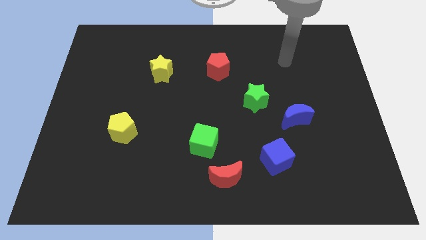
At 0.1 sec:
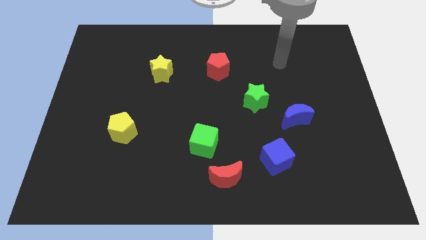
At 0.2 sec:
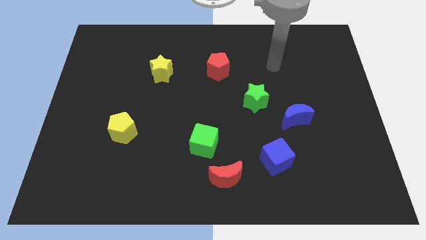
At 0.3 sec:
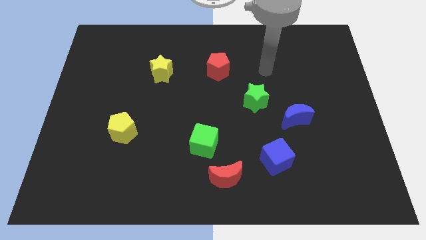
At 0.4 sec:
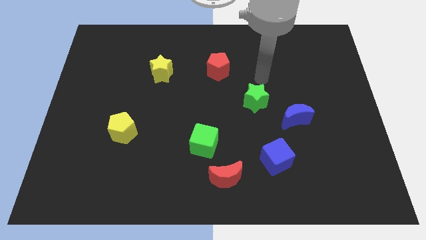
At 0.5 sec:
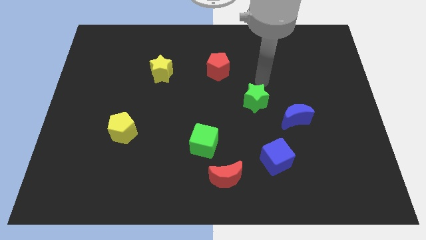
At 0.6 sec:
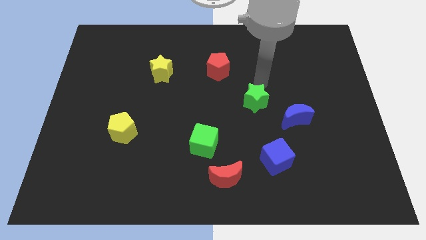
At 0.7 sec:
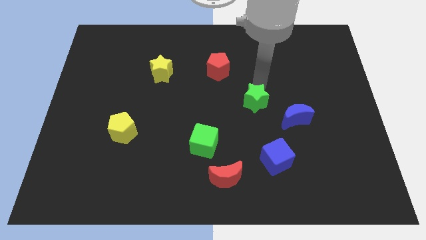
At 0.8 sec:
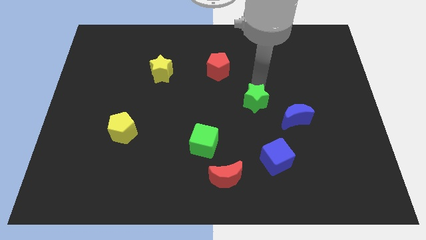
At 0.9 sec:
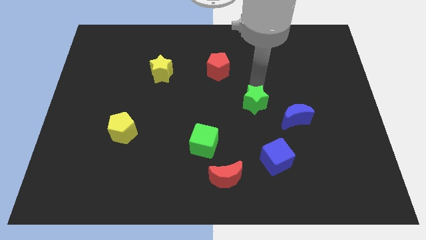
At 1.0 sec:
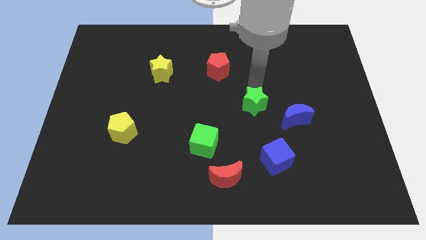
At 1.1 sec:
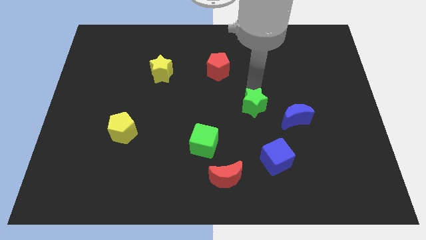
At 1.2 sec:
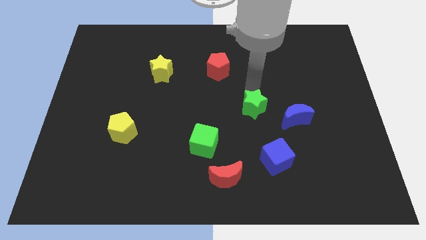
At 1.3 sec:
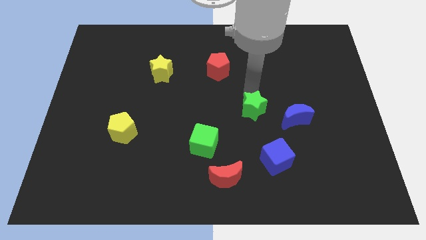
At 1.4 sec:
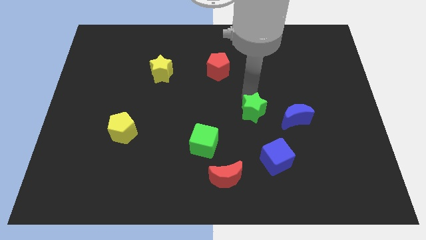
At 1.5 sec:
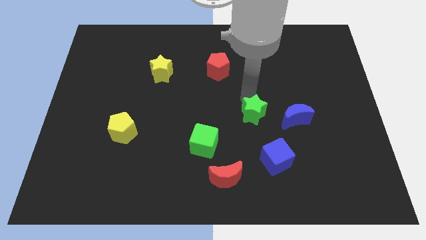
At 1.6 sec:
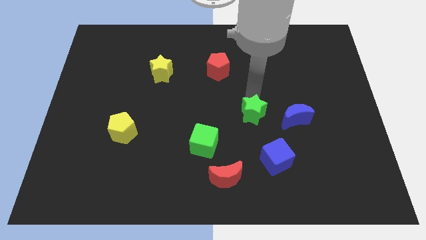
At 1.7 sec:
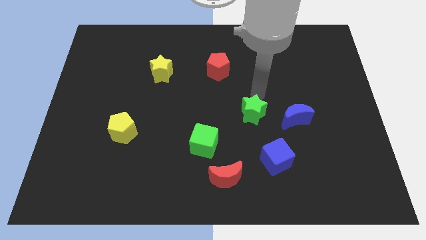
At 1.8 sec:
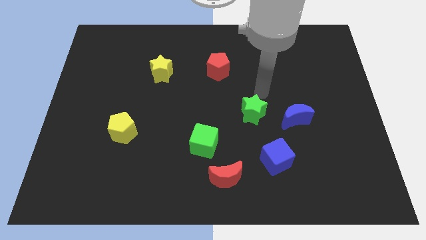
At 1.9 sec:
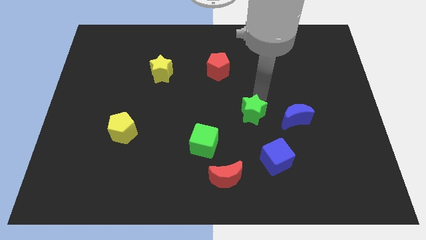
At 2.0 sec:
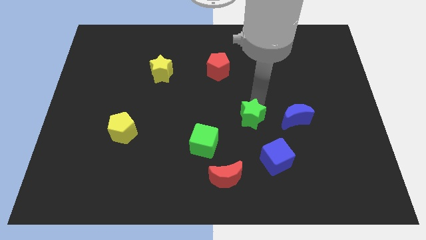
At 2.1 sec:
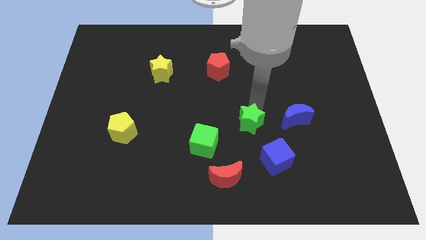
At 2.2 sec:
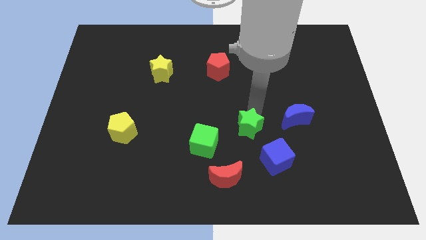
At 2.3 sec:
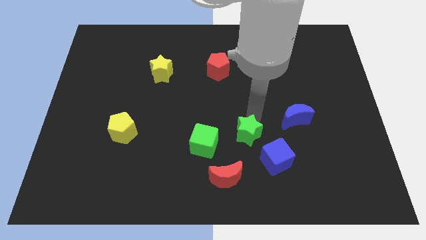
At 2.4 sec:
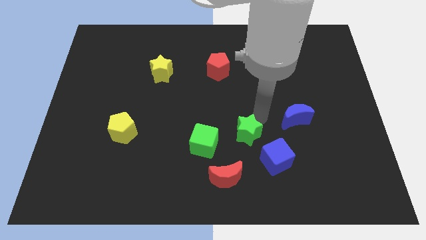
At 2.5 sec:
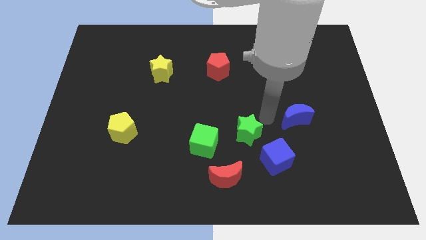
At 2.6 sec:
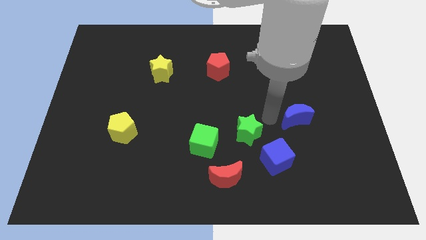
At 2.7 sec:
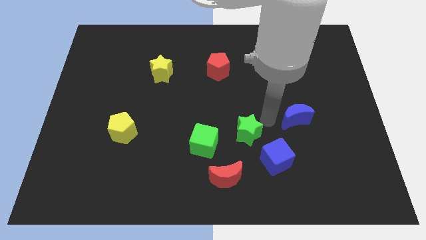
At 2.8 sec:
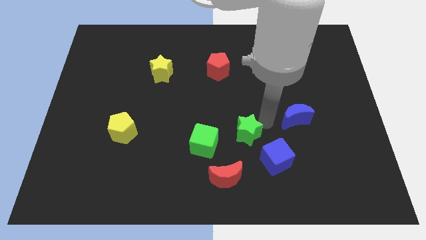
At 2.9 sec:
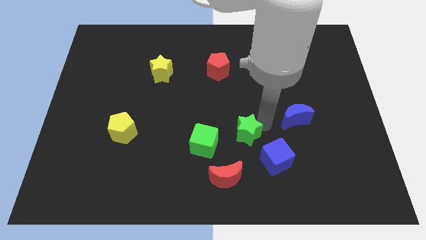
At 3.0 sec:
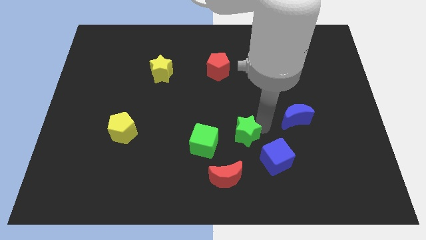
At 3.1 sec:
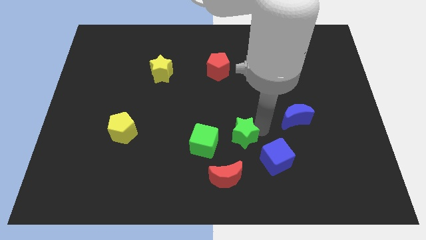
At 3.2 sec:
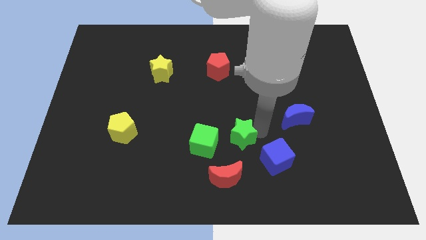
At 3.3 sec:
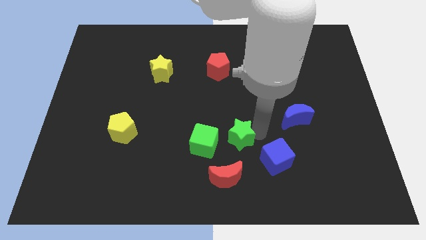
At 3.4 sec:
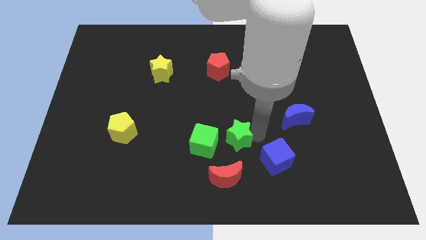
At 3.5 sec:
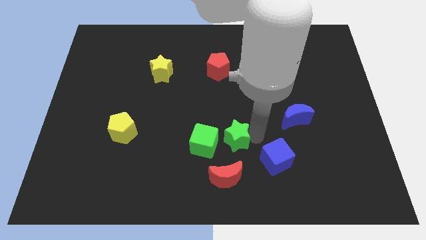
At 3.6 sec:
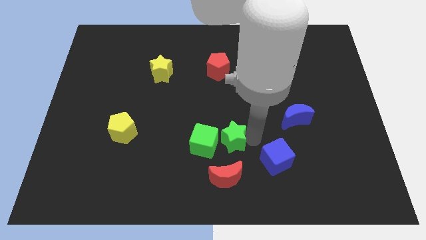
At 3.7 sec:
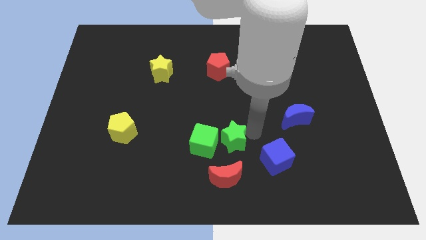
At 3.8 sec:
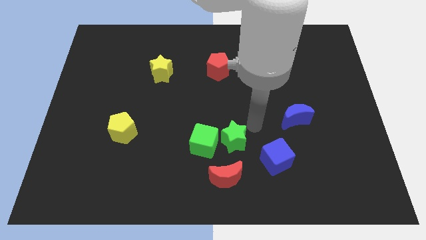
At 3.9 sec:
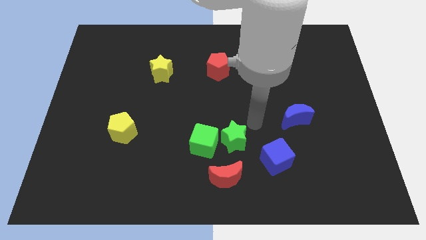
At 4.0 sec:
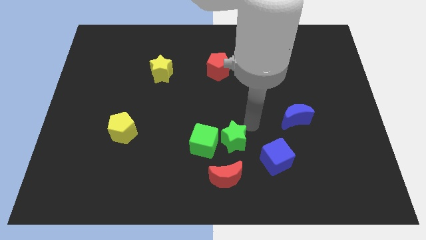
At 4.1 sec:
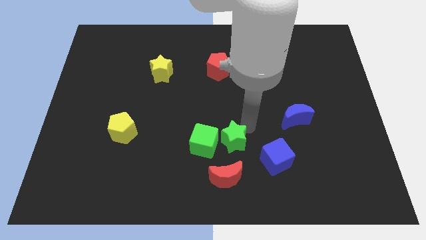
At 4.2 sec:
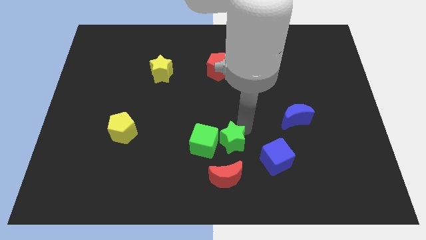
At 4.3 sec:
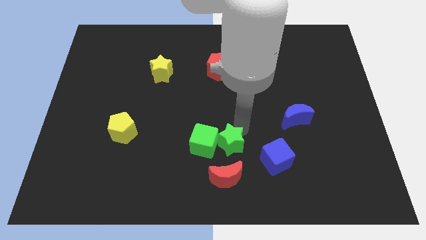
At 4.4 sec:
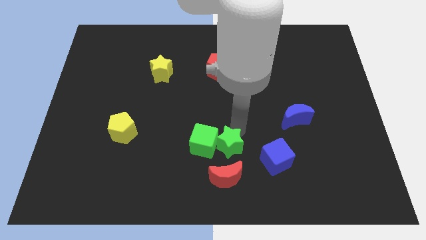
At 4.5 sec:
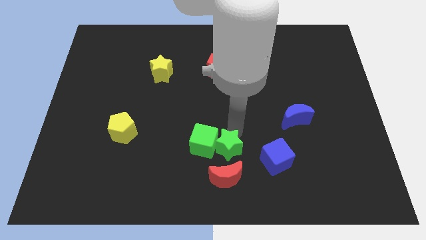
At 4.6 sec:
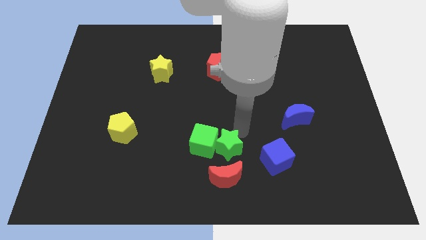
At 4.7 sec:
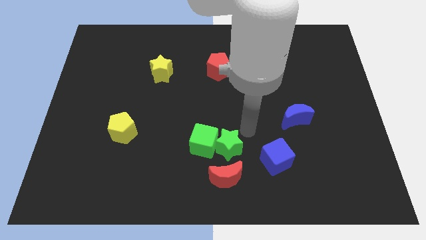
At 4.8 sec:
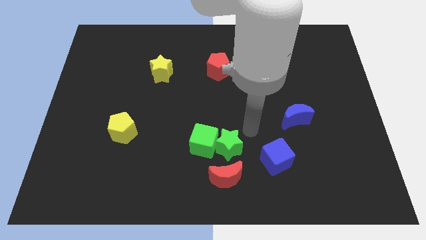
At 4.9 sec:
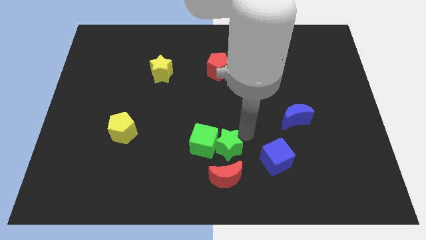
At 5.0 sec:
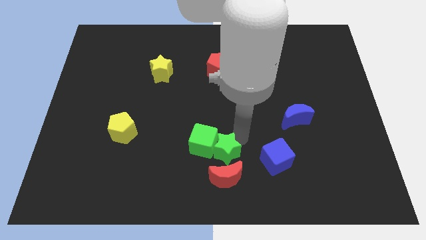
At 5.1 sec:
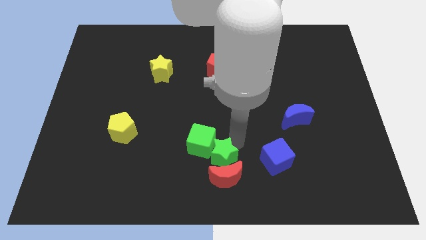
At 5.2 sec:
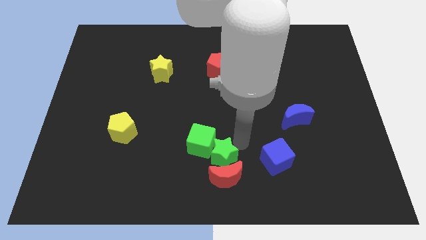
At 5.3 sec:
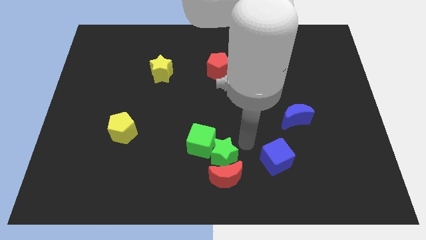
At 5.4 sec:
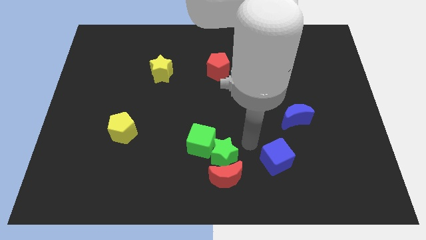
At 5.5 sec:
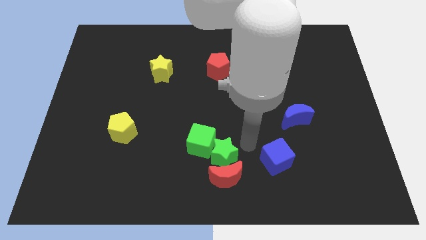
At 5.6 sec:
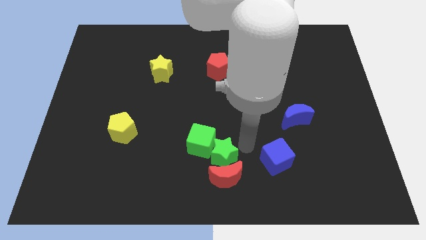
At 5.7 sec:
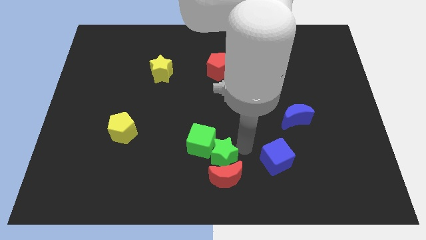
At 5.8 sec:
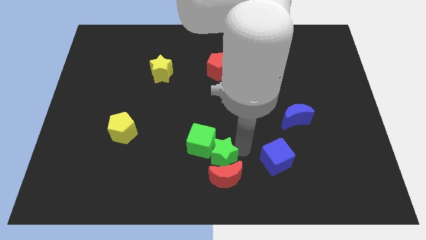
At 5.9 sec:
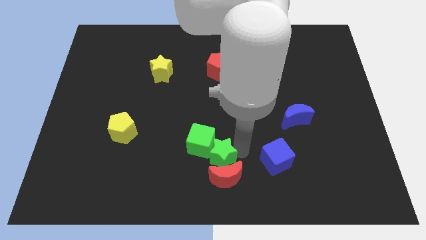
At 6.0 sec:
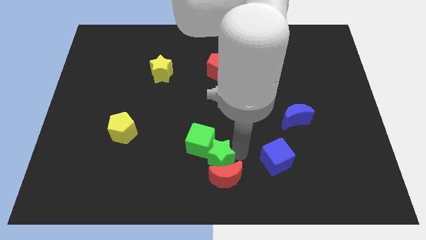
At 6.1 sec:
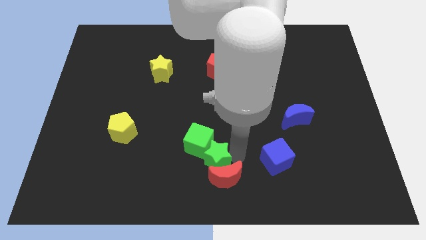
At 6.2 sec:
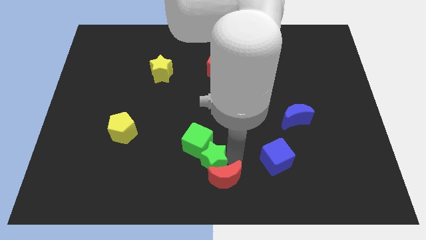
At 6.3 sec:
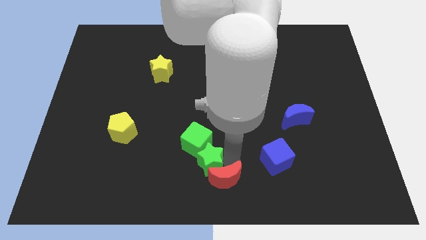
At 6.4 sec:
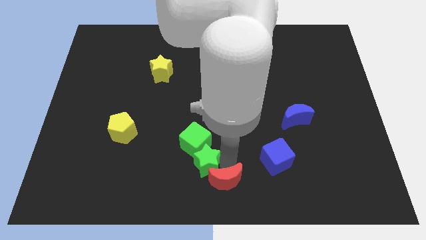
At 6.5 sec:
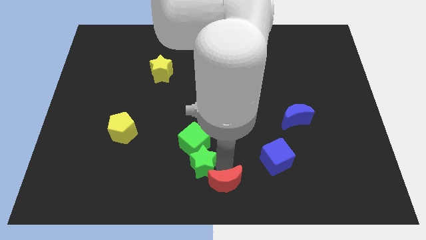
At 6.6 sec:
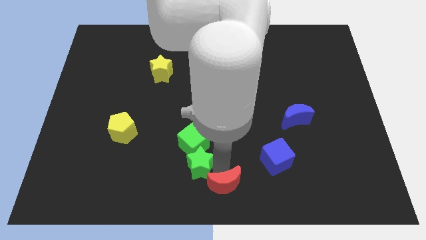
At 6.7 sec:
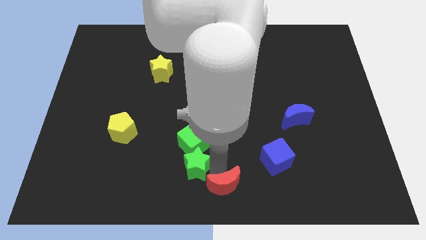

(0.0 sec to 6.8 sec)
push the green star diagonally down and to the left of the green cube

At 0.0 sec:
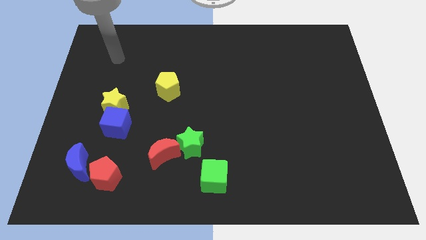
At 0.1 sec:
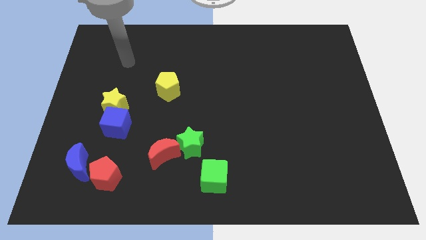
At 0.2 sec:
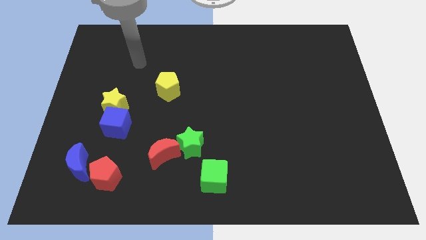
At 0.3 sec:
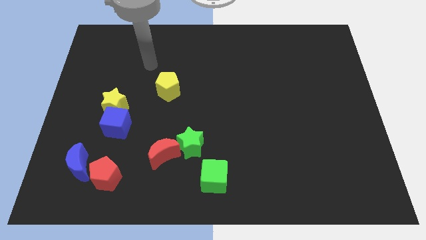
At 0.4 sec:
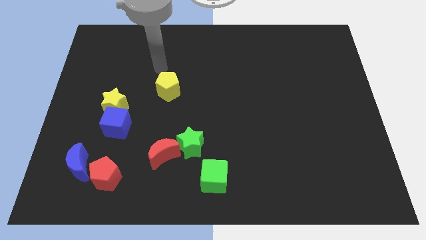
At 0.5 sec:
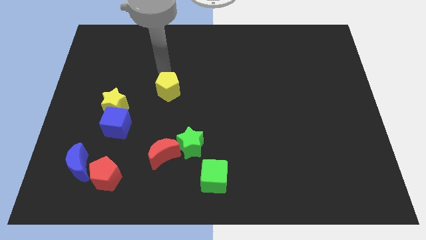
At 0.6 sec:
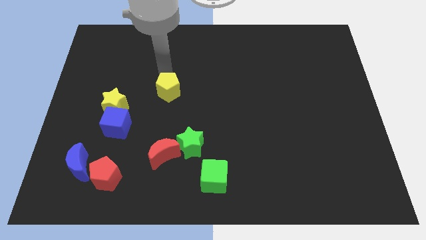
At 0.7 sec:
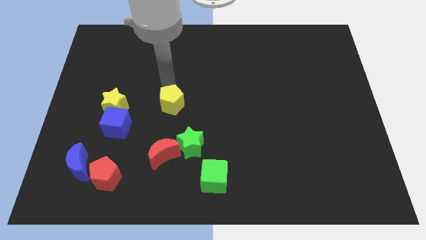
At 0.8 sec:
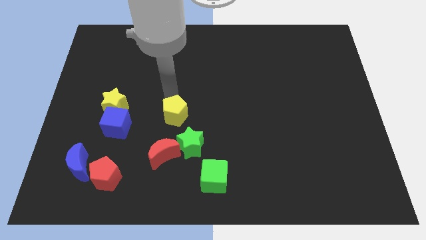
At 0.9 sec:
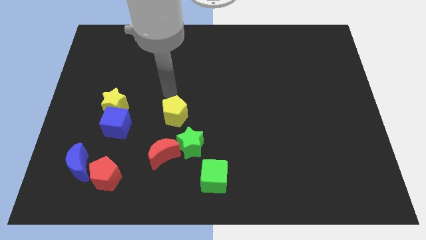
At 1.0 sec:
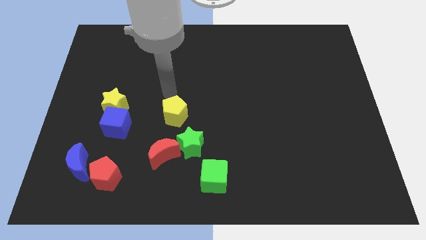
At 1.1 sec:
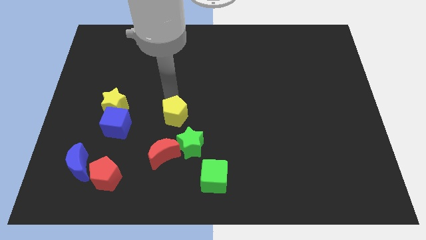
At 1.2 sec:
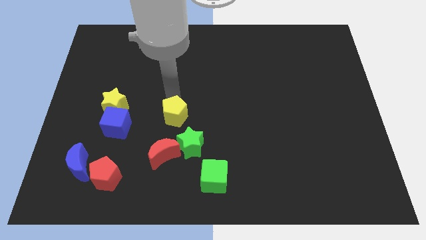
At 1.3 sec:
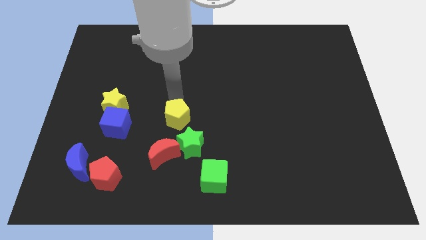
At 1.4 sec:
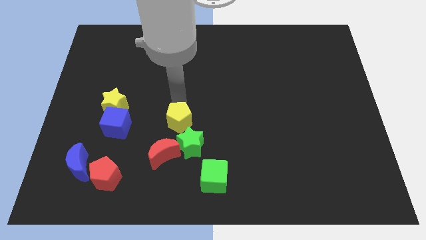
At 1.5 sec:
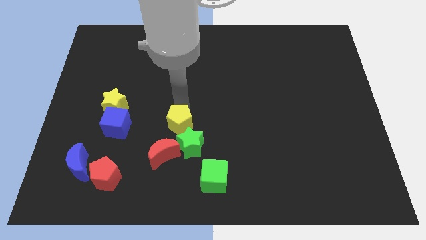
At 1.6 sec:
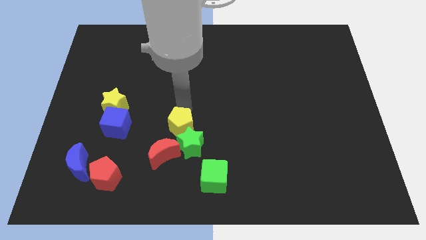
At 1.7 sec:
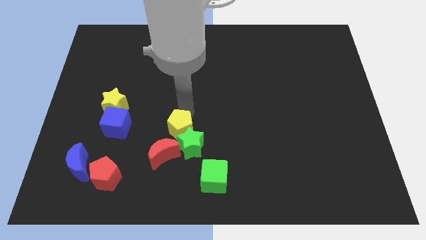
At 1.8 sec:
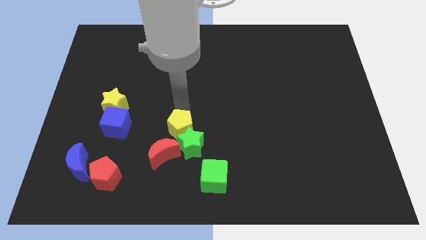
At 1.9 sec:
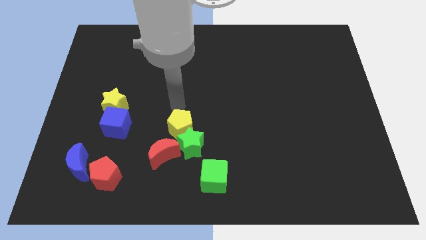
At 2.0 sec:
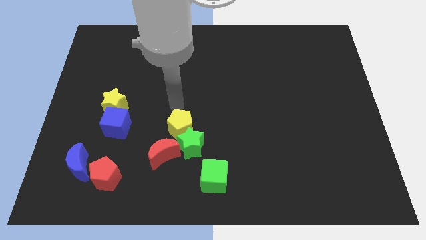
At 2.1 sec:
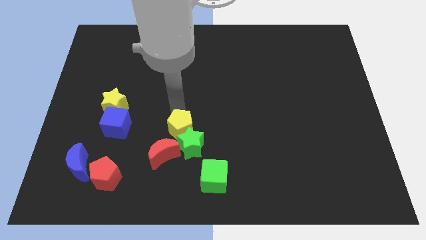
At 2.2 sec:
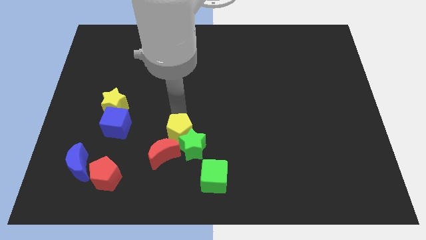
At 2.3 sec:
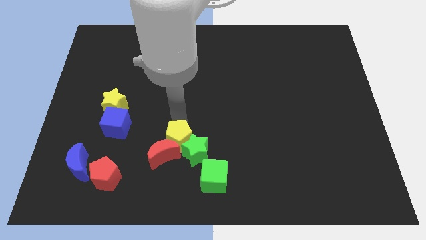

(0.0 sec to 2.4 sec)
slide the yellow pentagon to the top left side of the green cube
